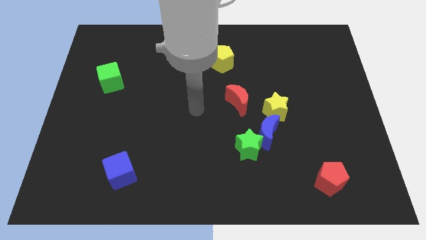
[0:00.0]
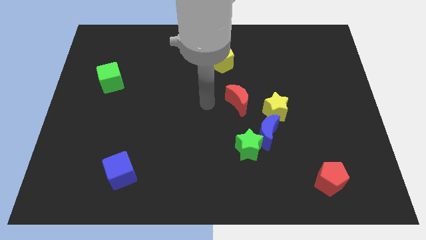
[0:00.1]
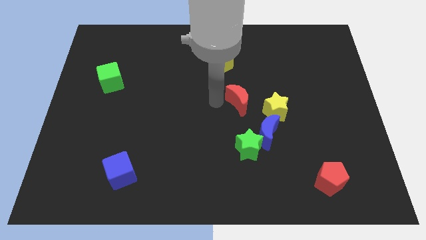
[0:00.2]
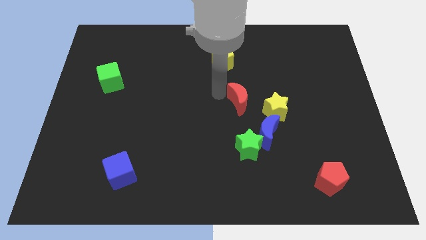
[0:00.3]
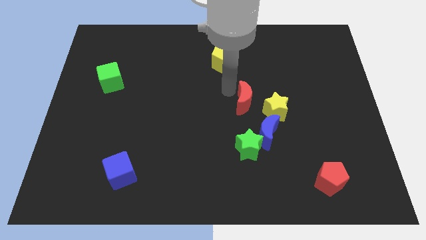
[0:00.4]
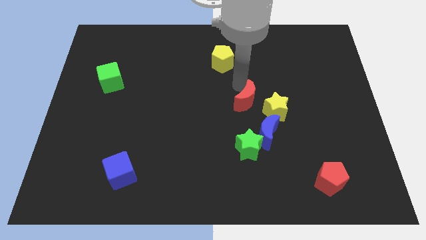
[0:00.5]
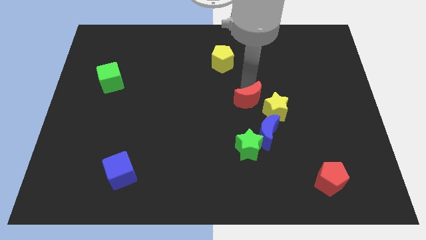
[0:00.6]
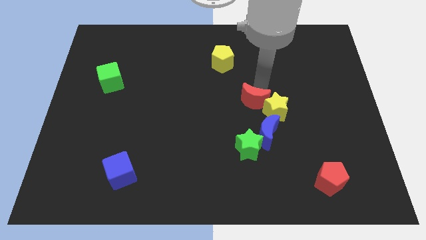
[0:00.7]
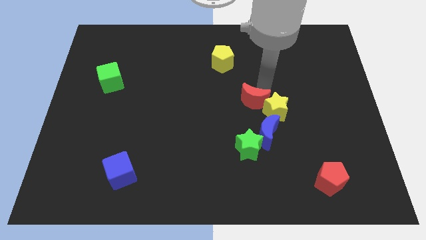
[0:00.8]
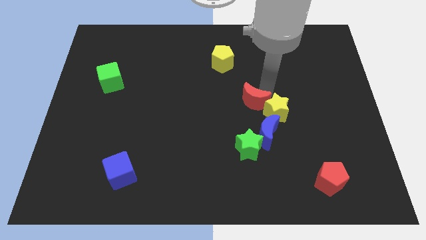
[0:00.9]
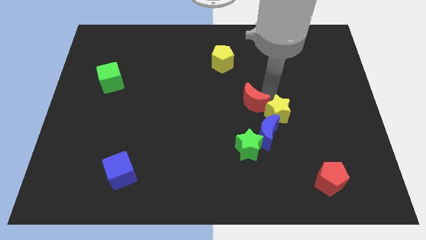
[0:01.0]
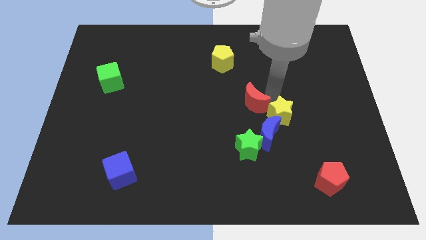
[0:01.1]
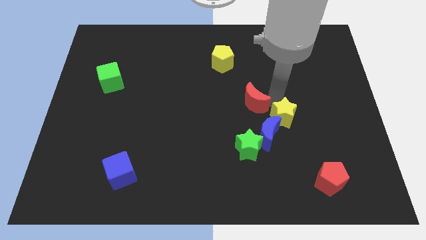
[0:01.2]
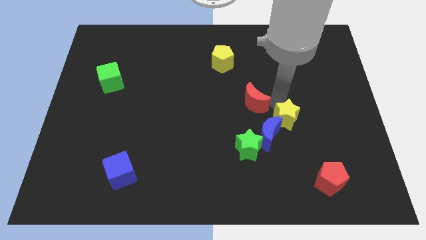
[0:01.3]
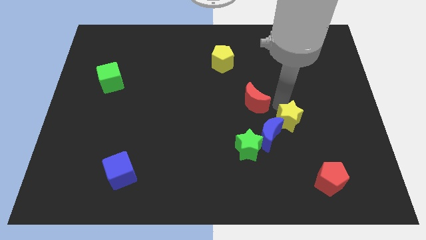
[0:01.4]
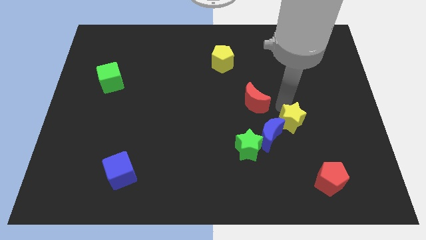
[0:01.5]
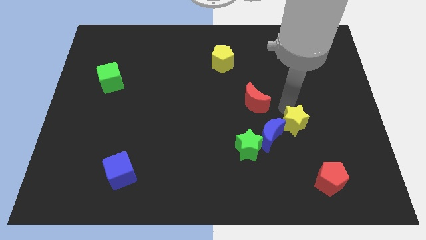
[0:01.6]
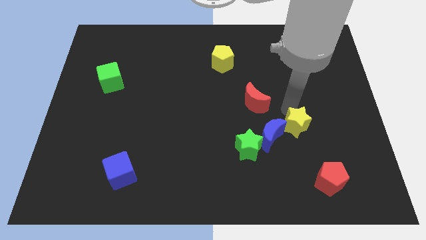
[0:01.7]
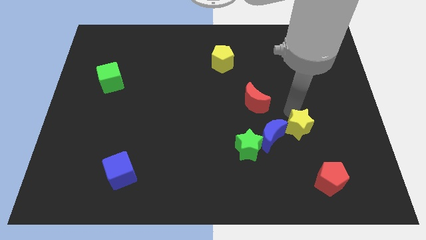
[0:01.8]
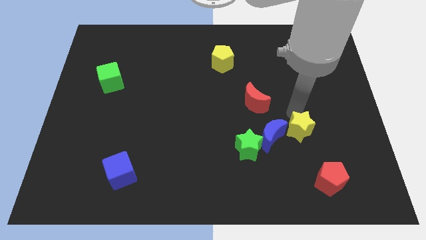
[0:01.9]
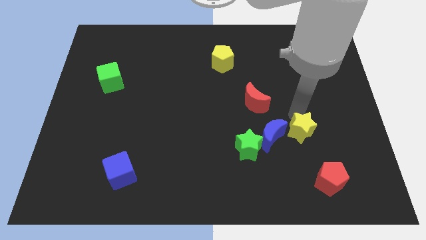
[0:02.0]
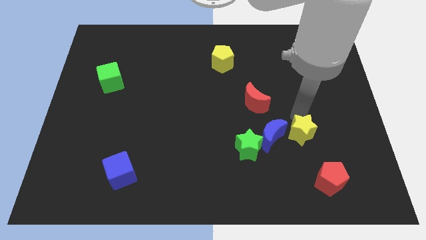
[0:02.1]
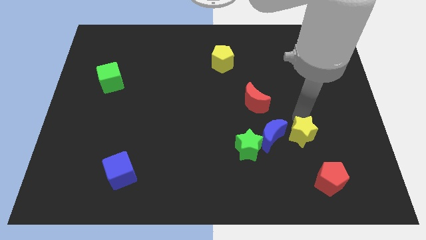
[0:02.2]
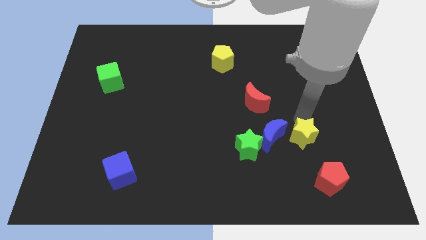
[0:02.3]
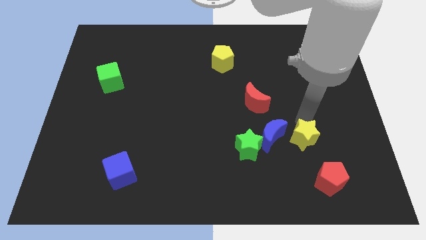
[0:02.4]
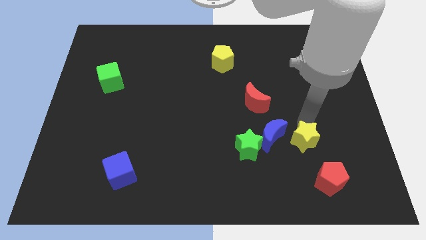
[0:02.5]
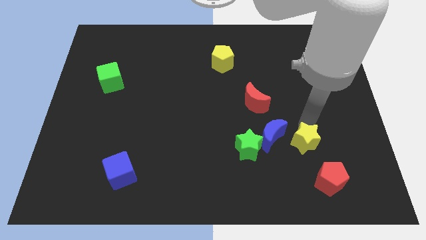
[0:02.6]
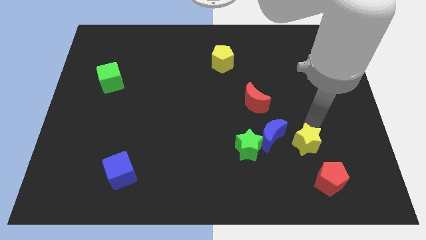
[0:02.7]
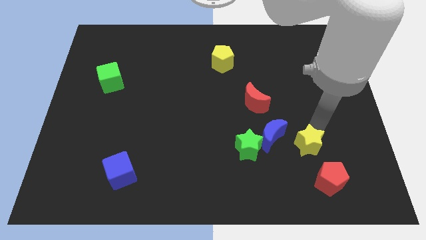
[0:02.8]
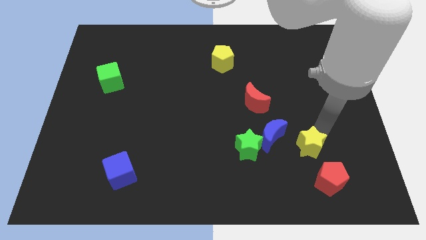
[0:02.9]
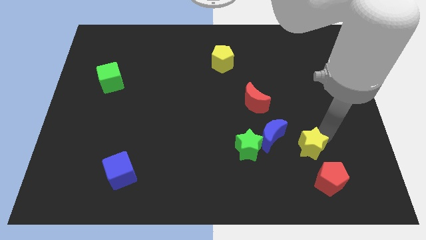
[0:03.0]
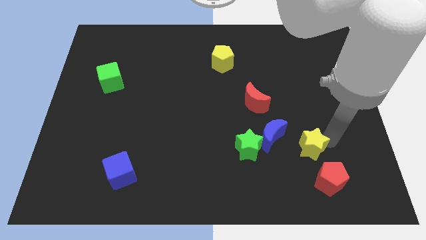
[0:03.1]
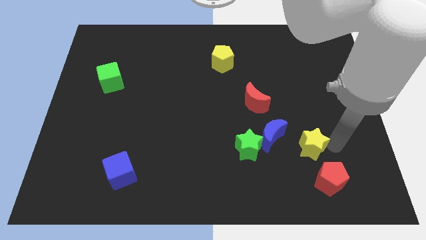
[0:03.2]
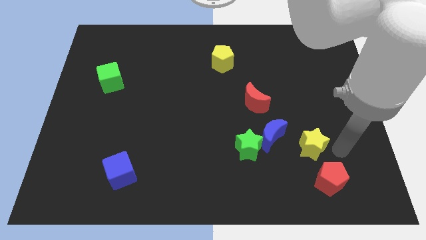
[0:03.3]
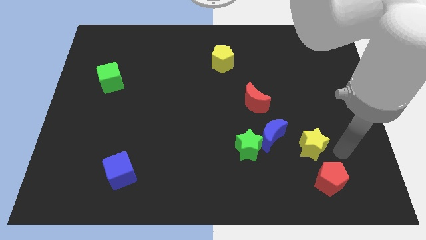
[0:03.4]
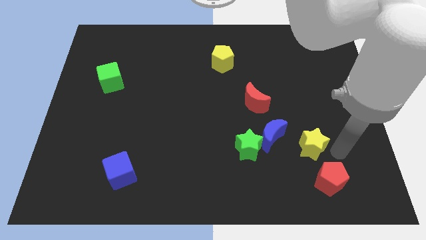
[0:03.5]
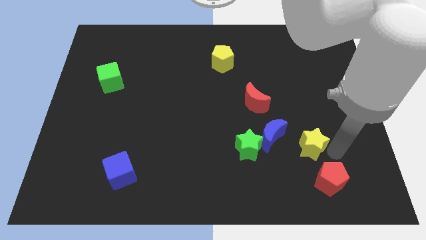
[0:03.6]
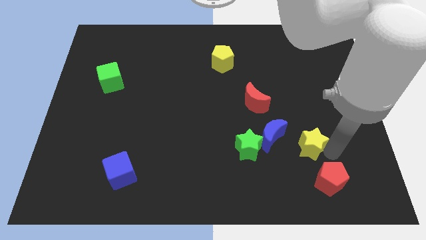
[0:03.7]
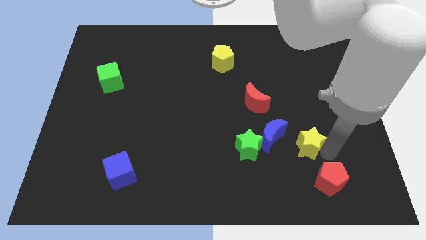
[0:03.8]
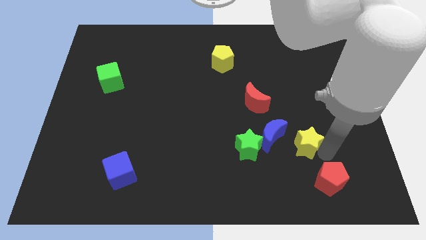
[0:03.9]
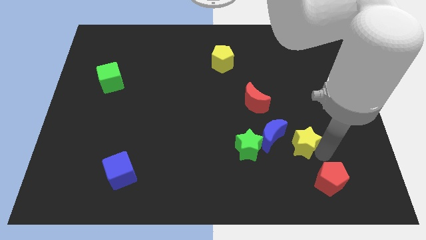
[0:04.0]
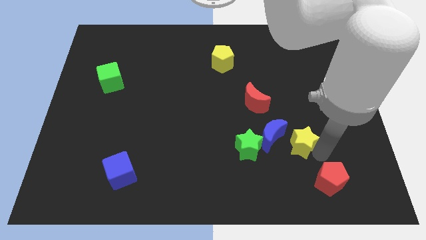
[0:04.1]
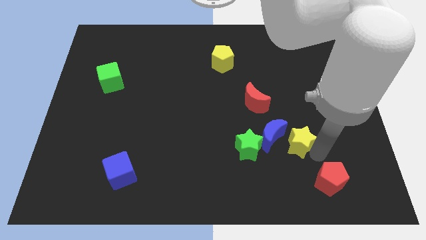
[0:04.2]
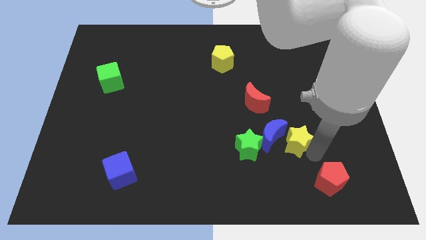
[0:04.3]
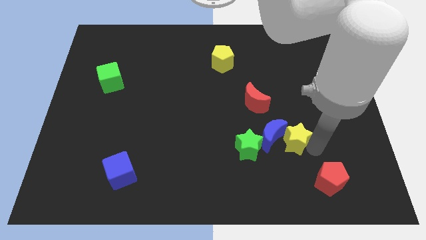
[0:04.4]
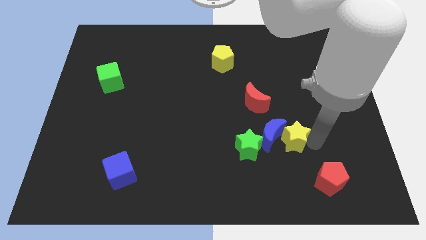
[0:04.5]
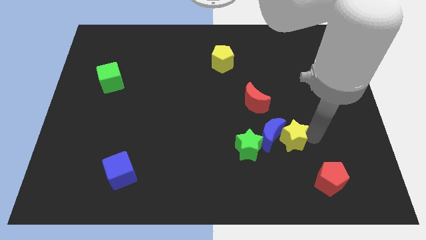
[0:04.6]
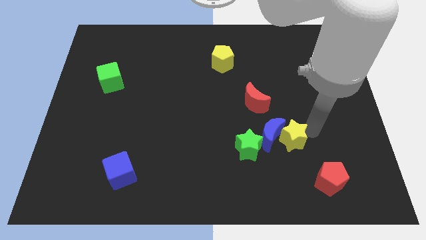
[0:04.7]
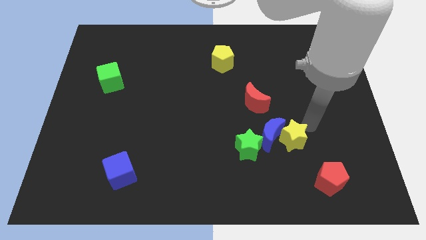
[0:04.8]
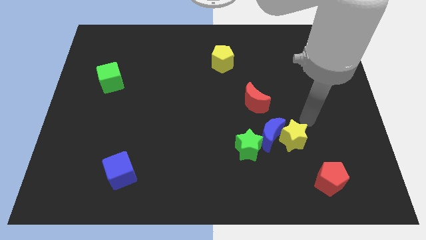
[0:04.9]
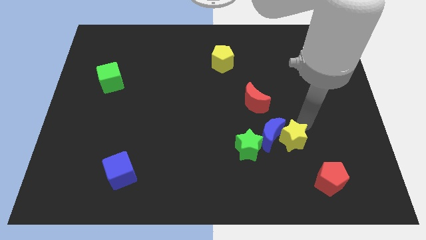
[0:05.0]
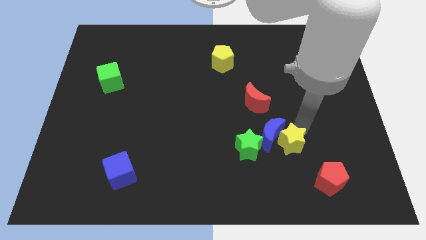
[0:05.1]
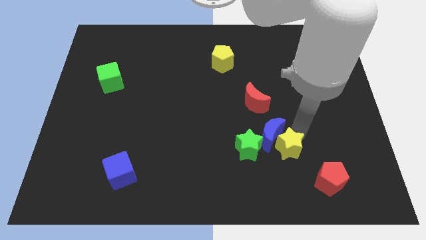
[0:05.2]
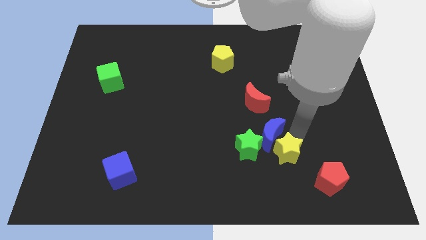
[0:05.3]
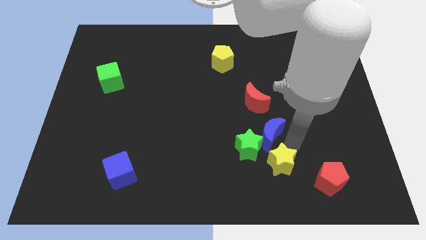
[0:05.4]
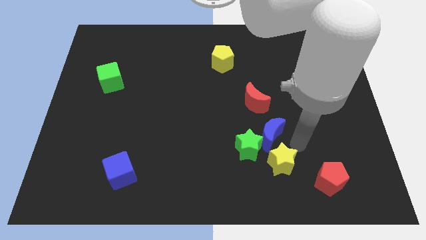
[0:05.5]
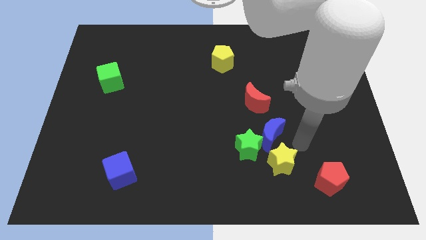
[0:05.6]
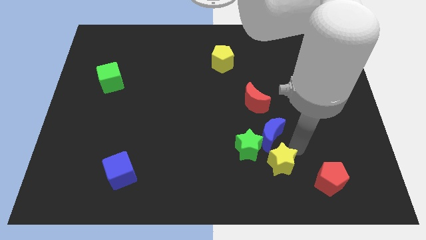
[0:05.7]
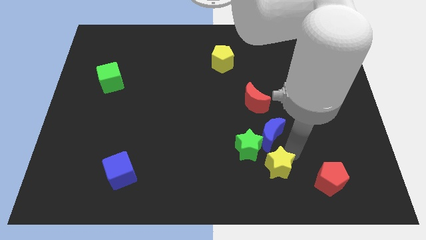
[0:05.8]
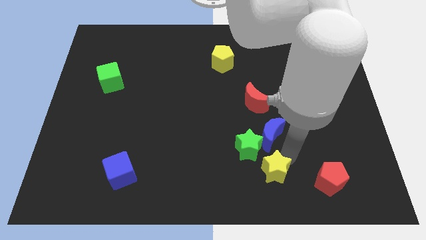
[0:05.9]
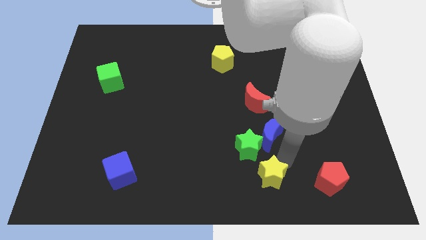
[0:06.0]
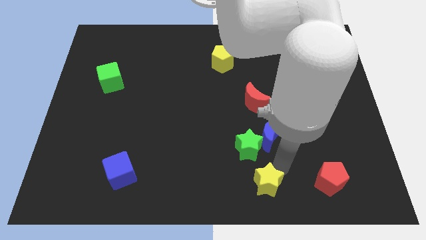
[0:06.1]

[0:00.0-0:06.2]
push the yellow star to the bottom
